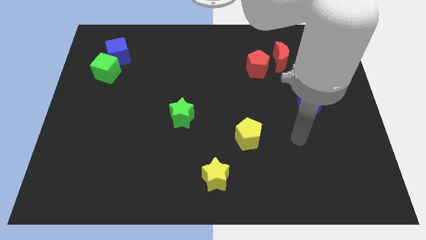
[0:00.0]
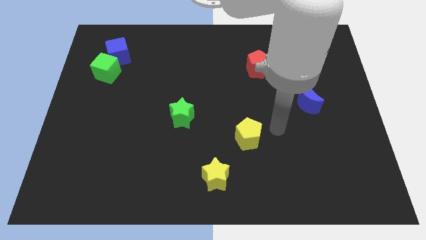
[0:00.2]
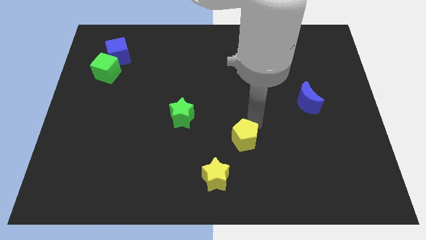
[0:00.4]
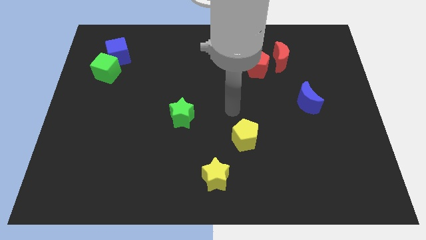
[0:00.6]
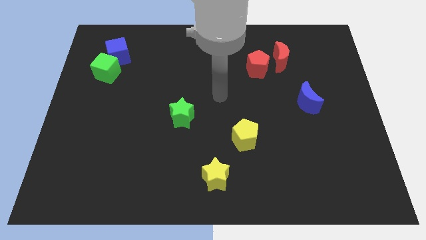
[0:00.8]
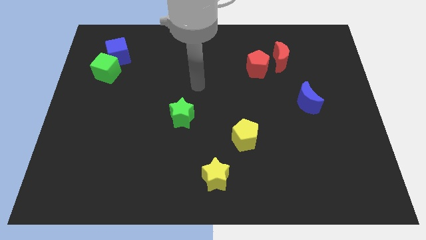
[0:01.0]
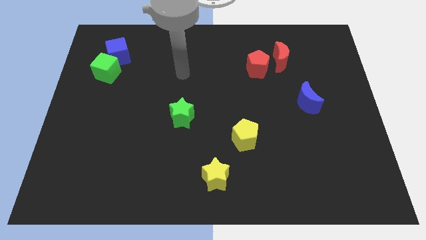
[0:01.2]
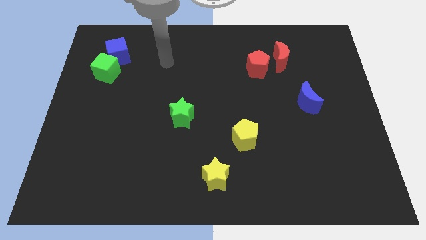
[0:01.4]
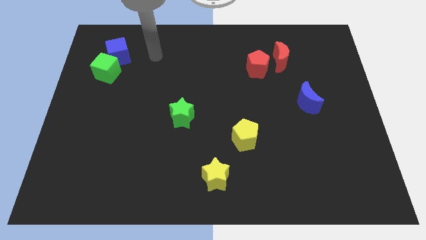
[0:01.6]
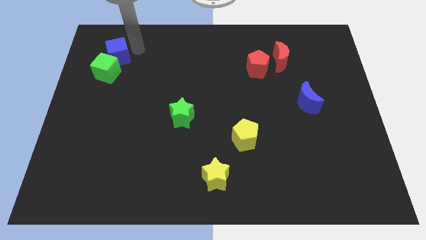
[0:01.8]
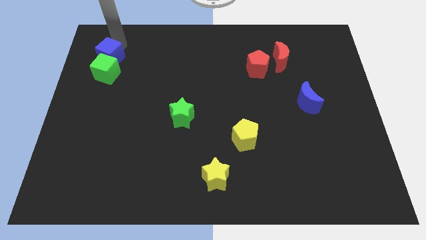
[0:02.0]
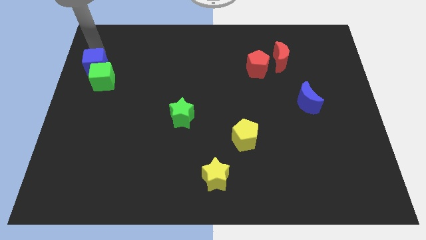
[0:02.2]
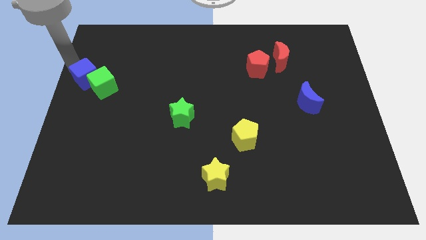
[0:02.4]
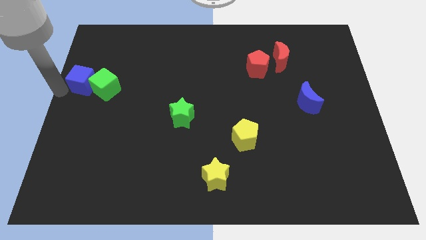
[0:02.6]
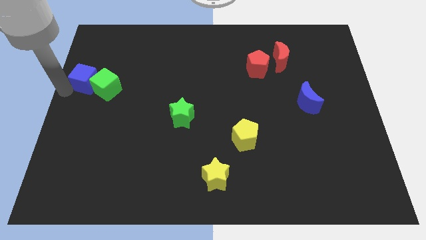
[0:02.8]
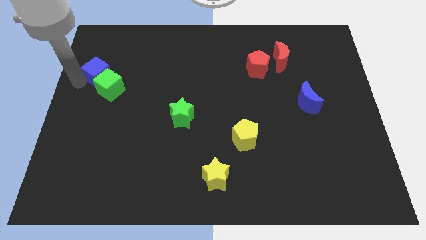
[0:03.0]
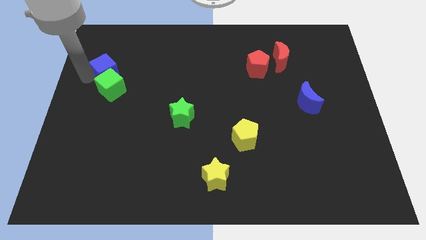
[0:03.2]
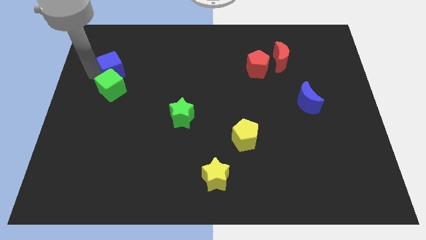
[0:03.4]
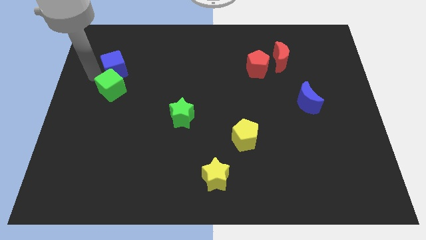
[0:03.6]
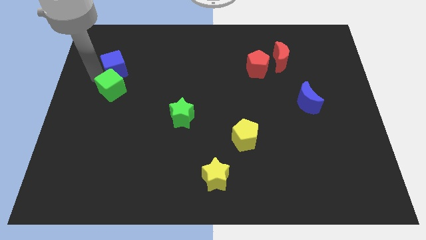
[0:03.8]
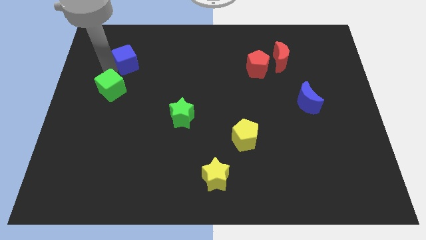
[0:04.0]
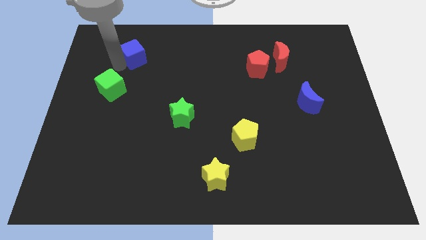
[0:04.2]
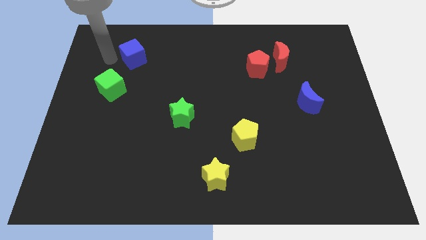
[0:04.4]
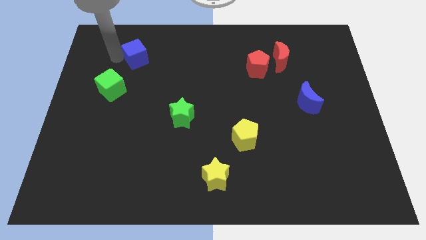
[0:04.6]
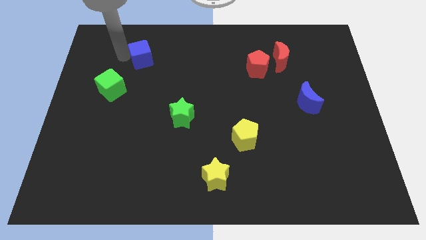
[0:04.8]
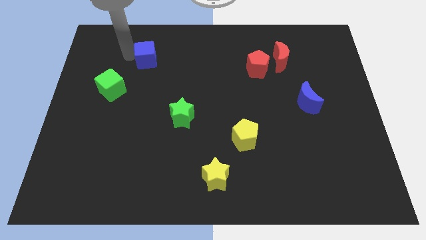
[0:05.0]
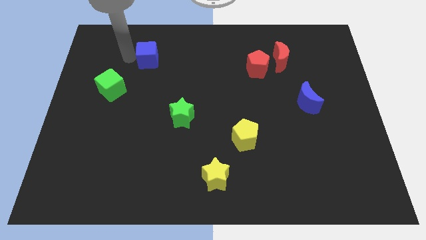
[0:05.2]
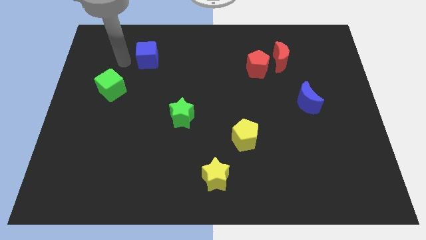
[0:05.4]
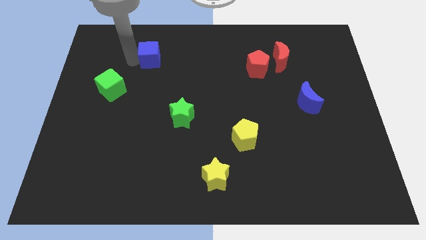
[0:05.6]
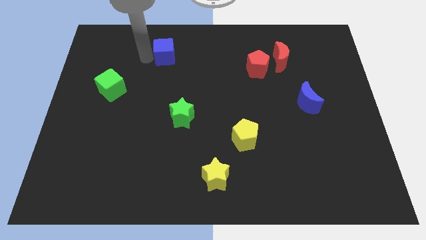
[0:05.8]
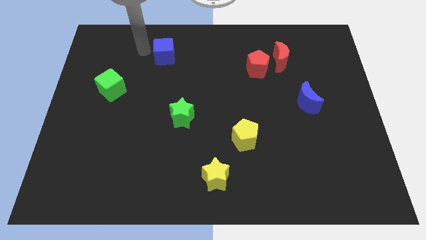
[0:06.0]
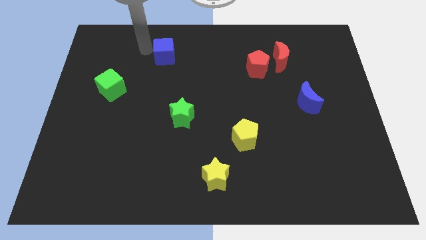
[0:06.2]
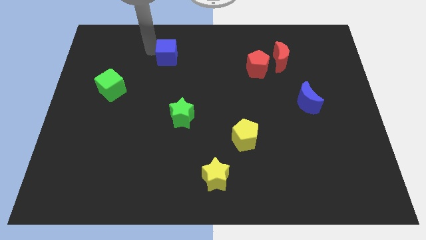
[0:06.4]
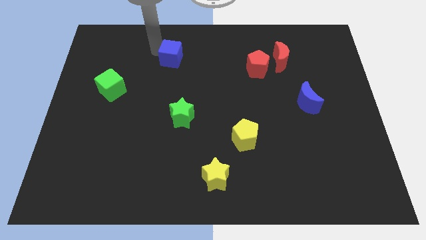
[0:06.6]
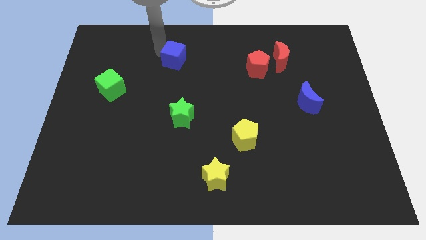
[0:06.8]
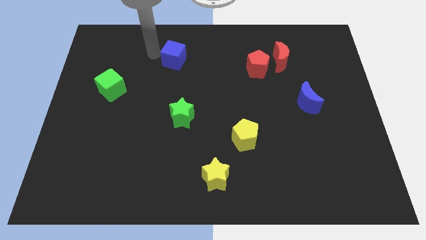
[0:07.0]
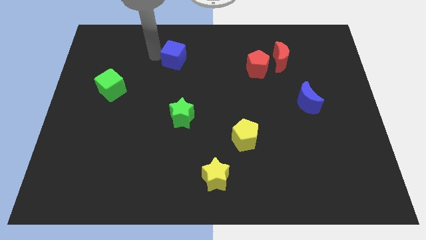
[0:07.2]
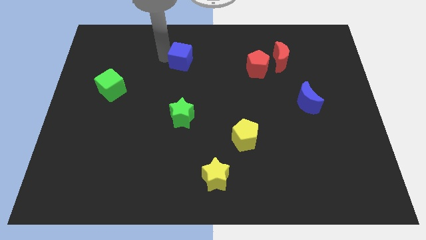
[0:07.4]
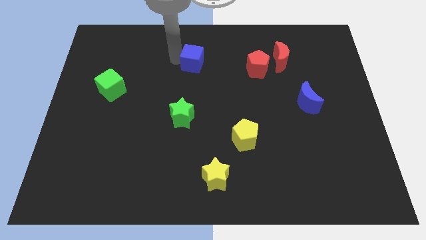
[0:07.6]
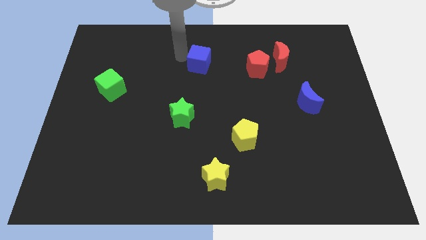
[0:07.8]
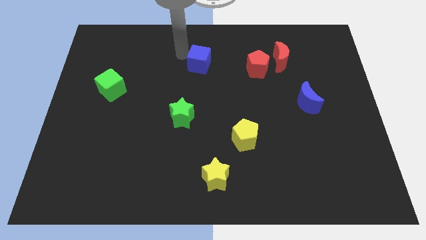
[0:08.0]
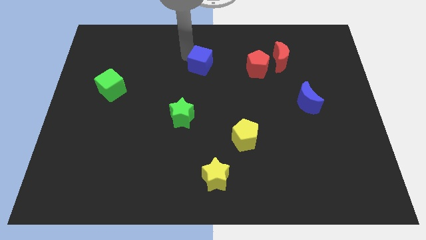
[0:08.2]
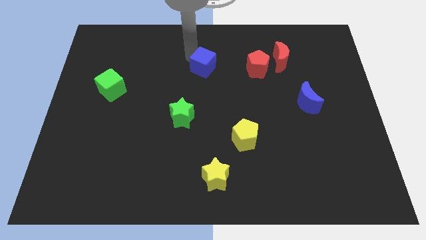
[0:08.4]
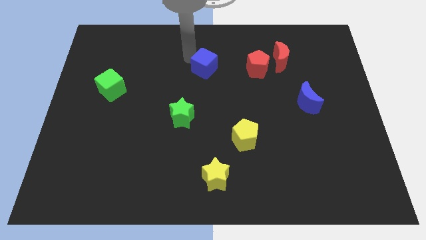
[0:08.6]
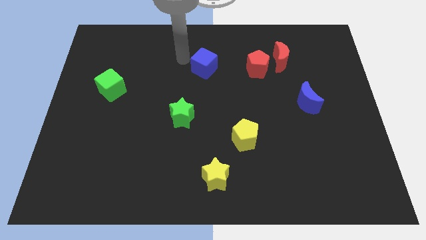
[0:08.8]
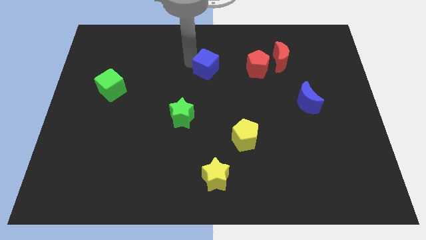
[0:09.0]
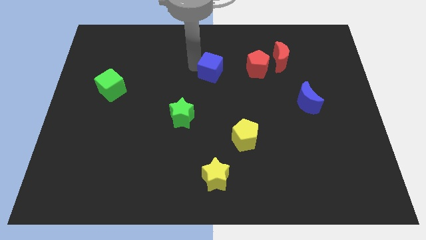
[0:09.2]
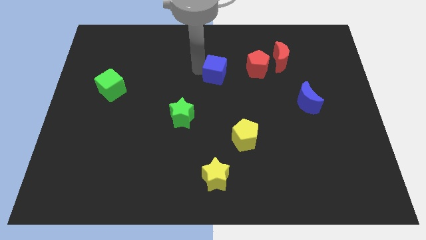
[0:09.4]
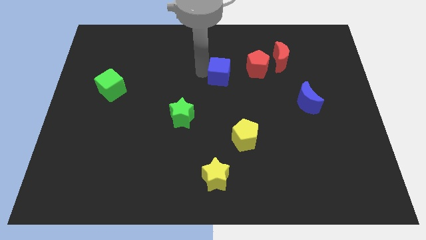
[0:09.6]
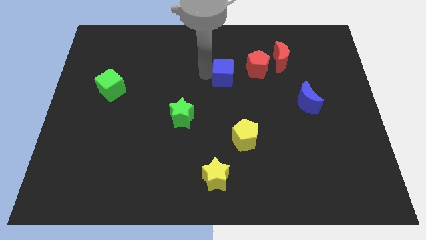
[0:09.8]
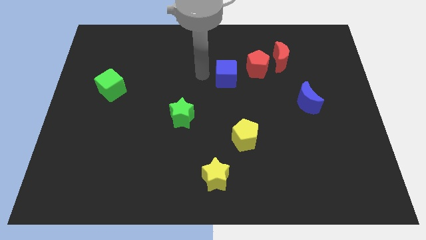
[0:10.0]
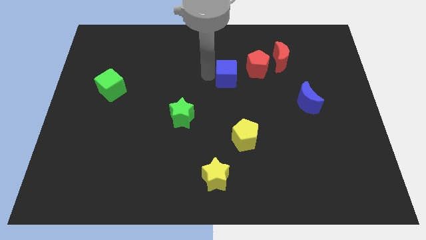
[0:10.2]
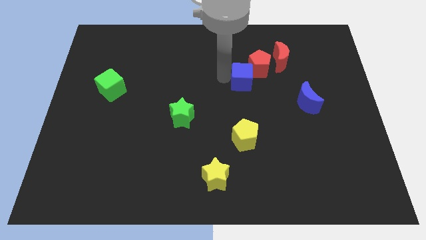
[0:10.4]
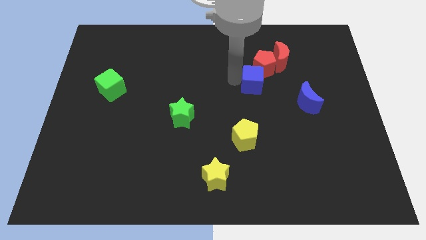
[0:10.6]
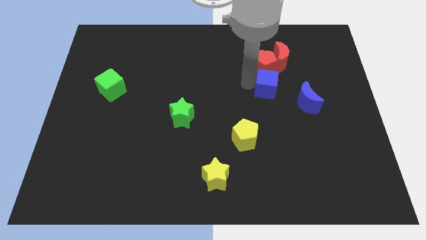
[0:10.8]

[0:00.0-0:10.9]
move the blue cube to the top left of the blue moon

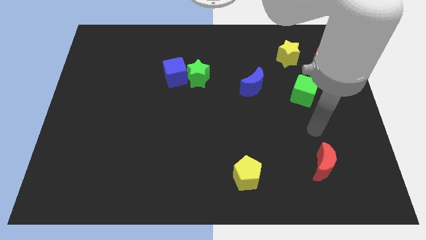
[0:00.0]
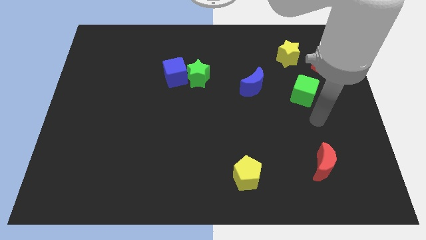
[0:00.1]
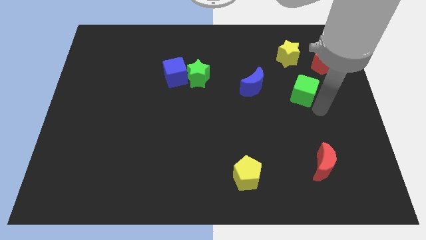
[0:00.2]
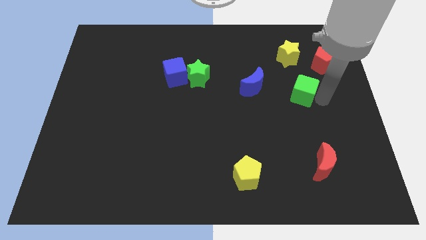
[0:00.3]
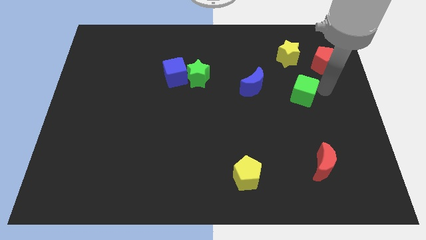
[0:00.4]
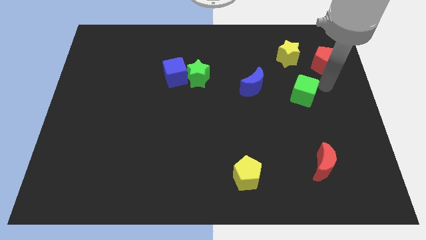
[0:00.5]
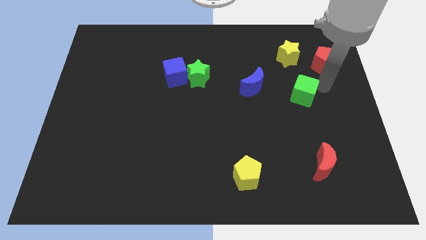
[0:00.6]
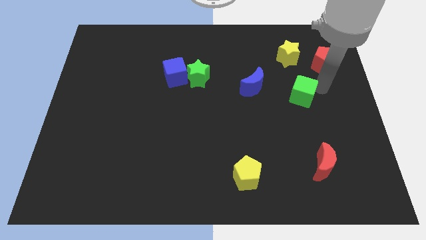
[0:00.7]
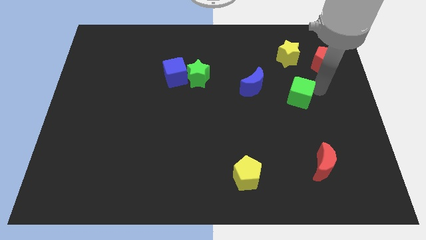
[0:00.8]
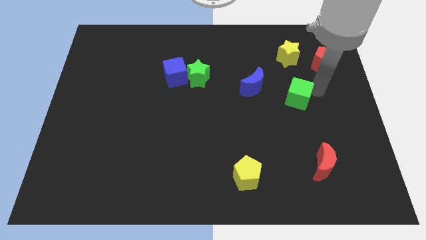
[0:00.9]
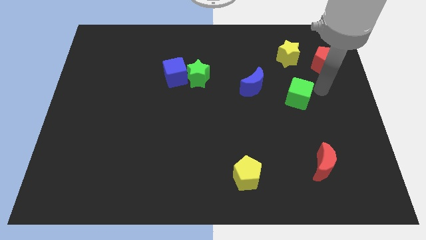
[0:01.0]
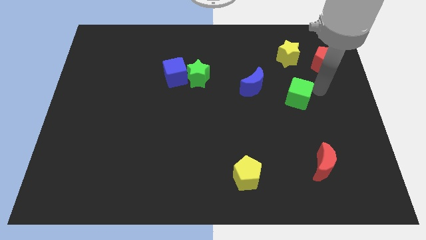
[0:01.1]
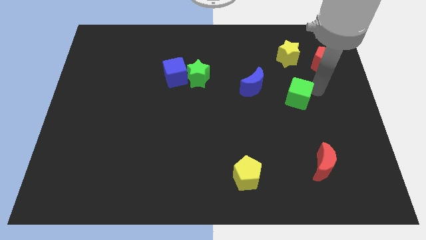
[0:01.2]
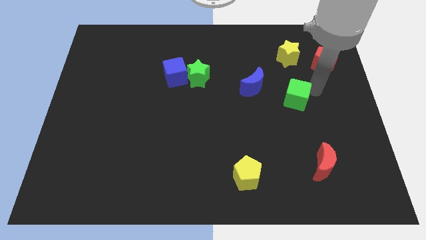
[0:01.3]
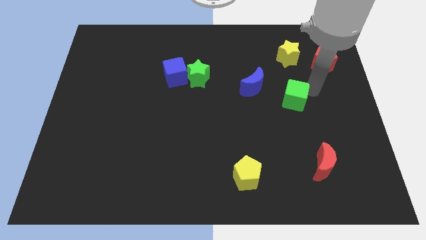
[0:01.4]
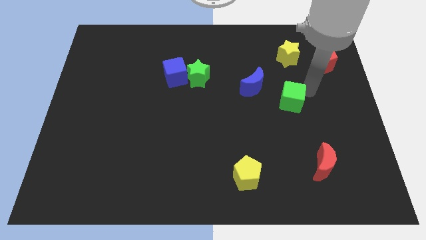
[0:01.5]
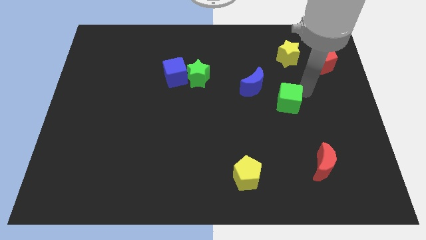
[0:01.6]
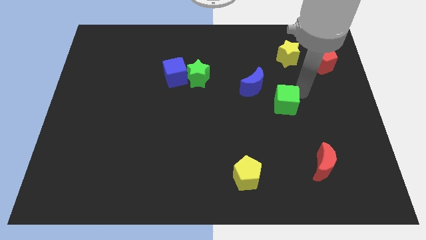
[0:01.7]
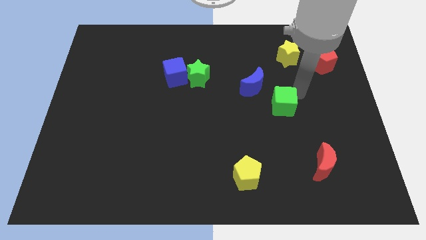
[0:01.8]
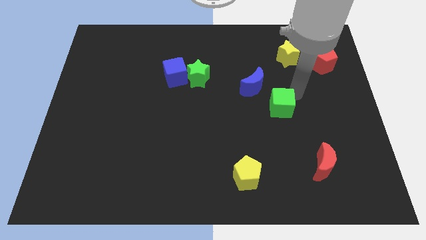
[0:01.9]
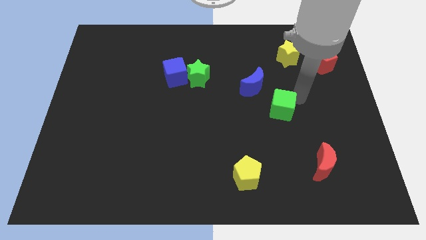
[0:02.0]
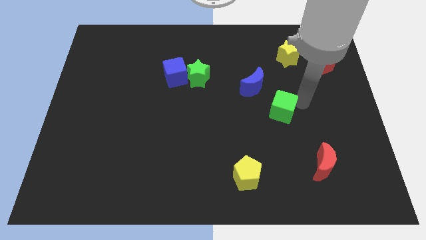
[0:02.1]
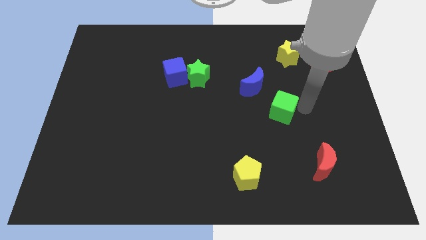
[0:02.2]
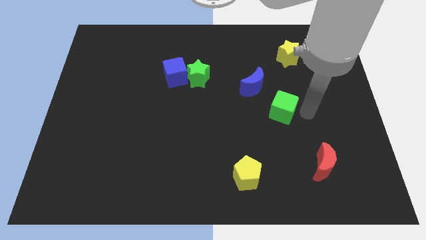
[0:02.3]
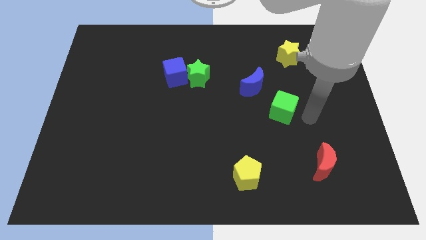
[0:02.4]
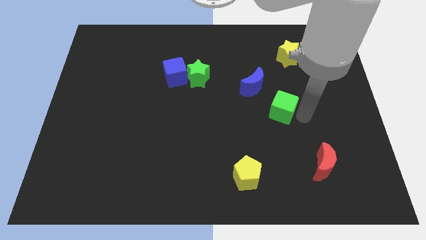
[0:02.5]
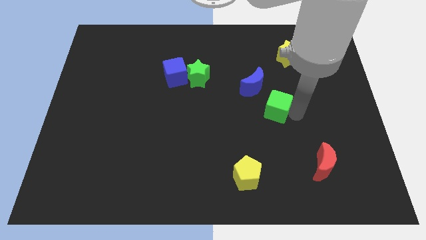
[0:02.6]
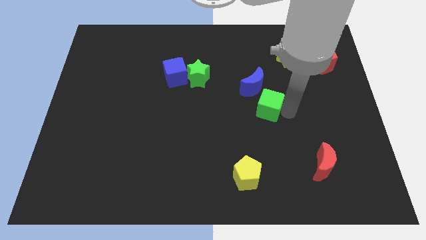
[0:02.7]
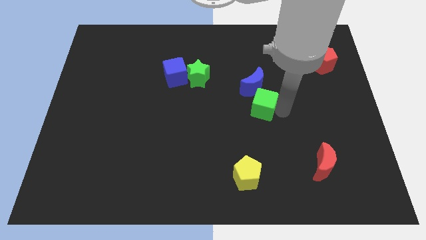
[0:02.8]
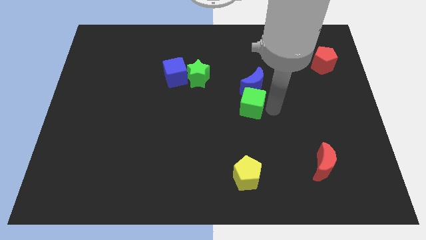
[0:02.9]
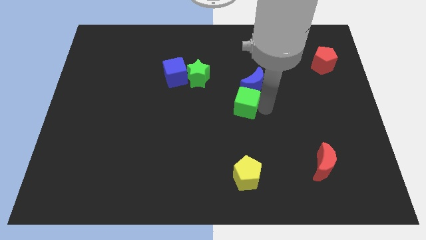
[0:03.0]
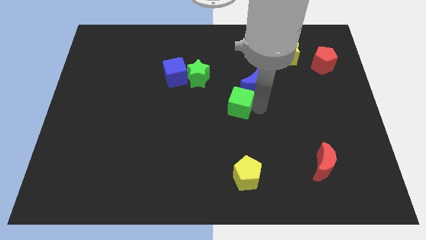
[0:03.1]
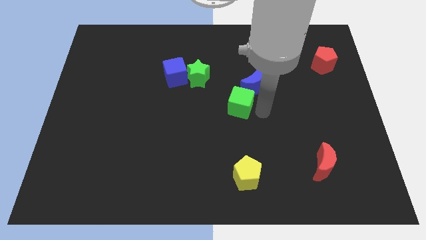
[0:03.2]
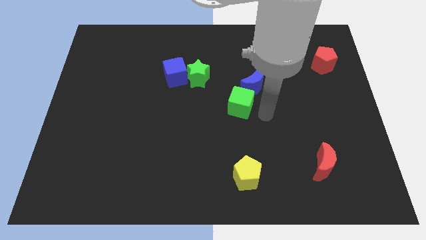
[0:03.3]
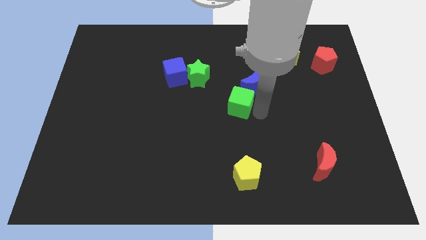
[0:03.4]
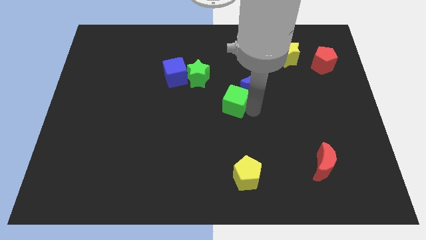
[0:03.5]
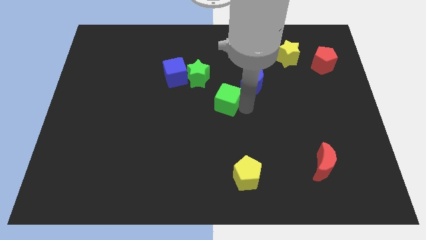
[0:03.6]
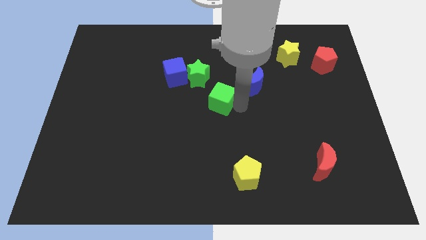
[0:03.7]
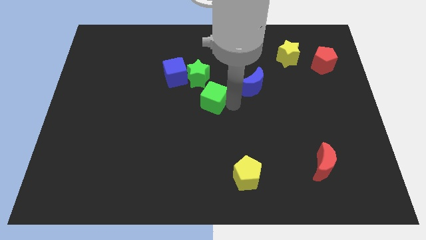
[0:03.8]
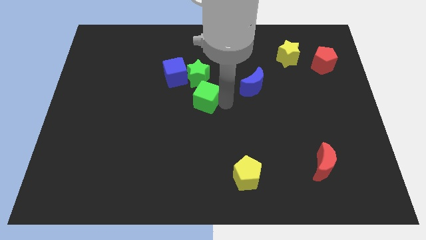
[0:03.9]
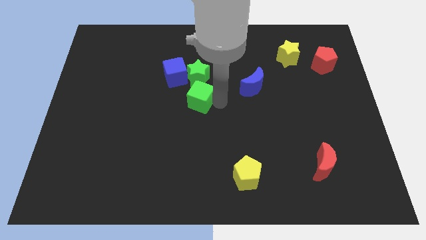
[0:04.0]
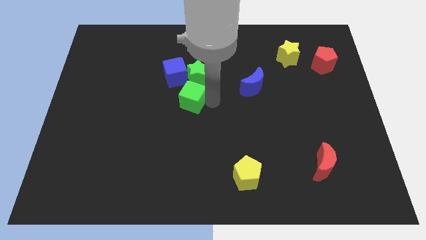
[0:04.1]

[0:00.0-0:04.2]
move the green cube to the bottom left of the green star
